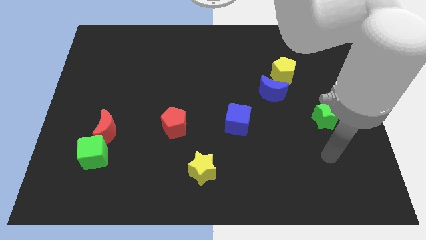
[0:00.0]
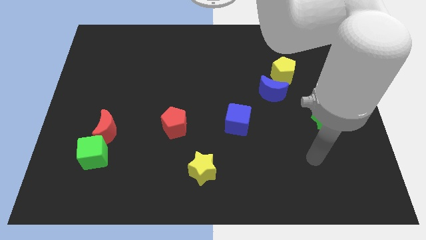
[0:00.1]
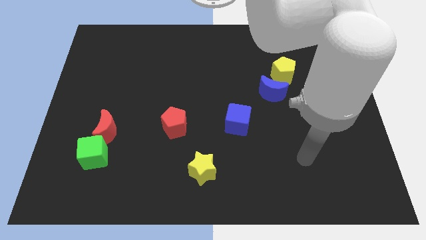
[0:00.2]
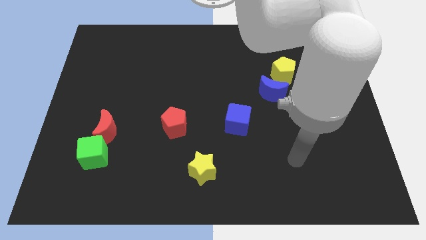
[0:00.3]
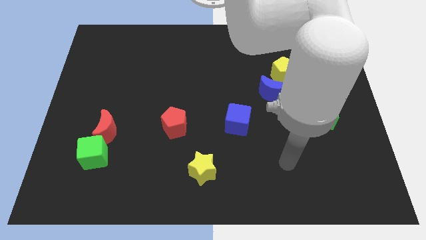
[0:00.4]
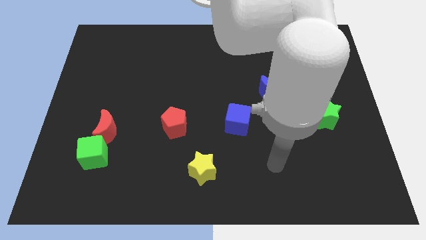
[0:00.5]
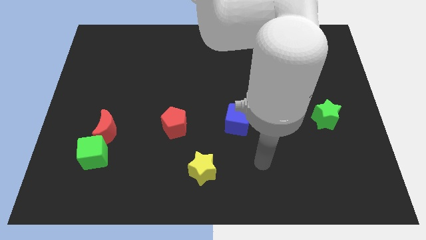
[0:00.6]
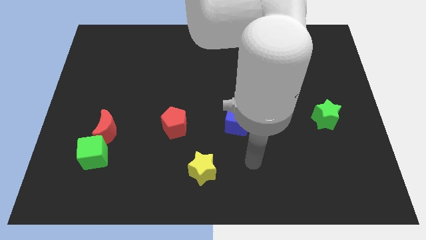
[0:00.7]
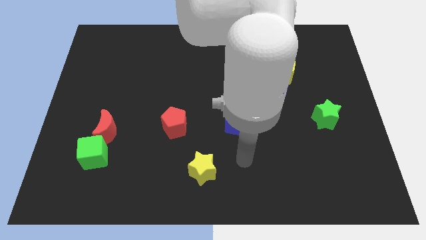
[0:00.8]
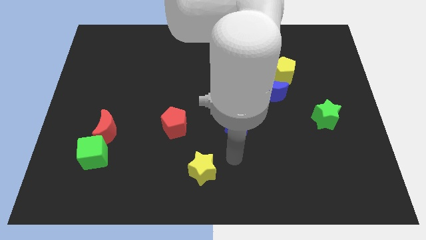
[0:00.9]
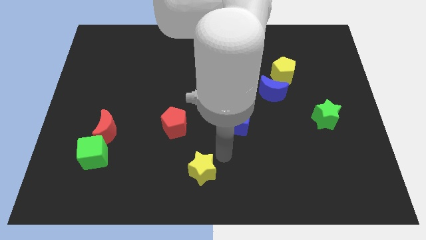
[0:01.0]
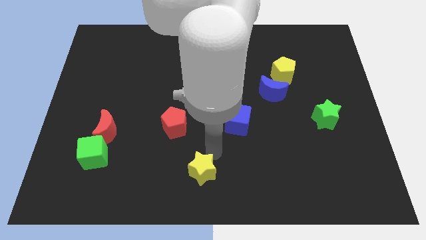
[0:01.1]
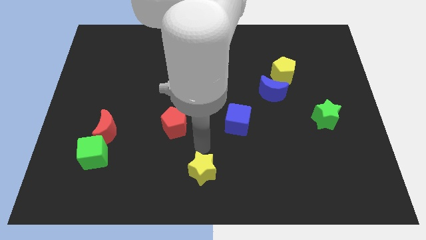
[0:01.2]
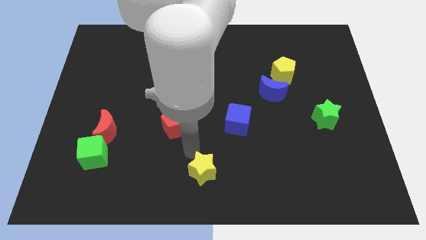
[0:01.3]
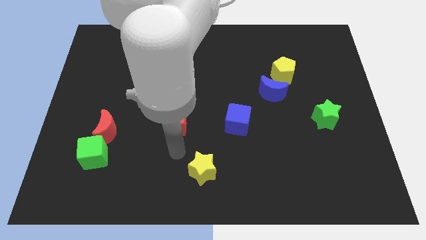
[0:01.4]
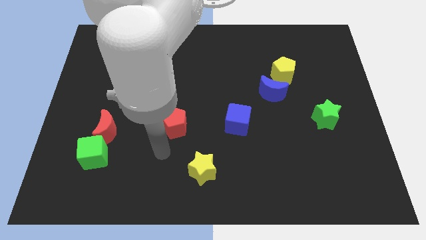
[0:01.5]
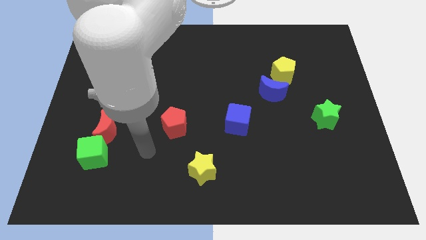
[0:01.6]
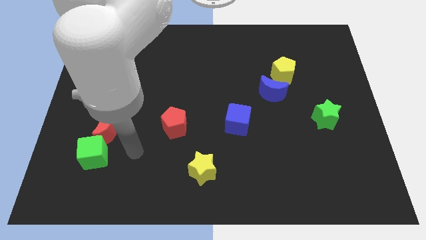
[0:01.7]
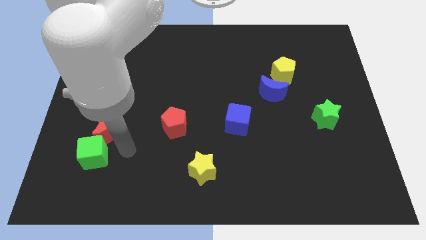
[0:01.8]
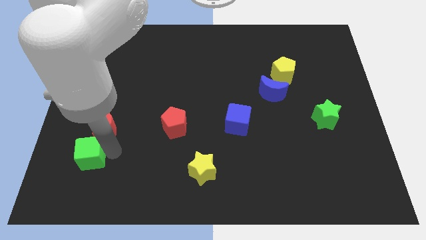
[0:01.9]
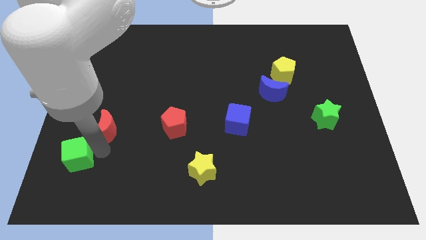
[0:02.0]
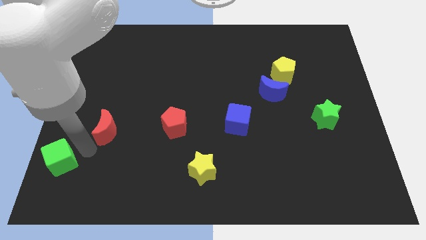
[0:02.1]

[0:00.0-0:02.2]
separate the red moon from the green cube

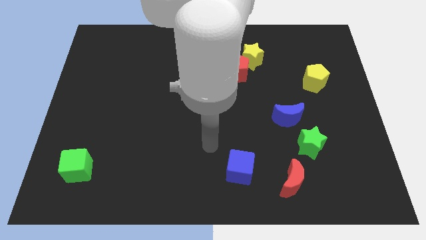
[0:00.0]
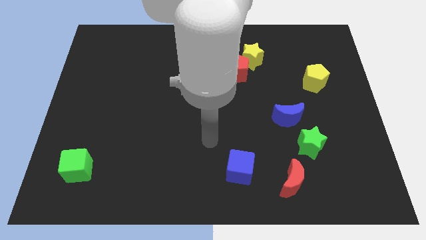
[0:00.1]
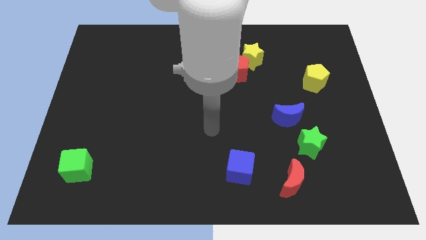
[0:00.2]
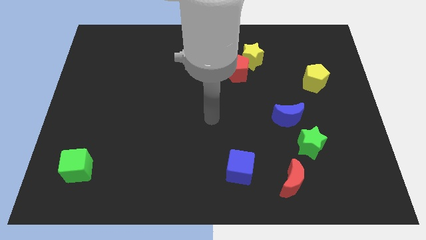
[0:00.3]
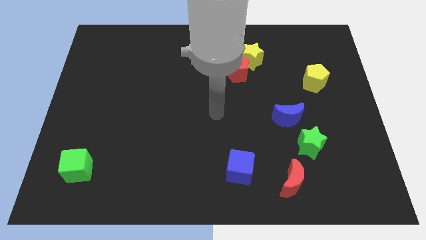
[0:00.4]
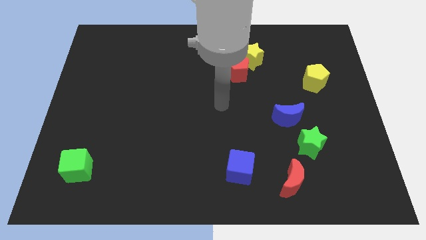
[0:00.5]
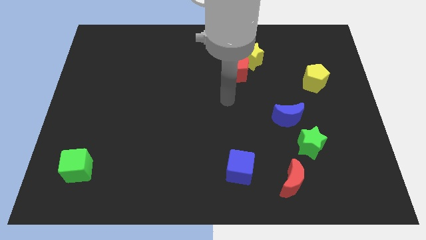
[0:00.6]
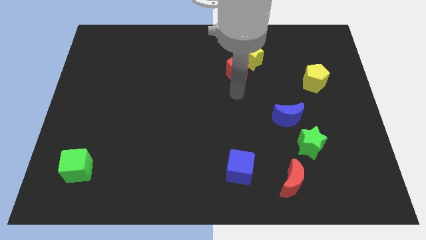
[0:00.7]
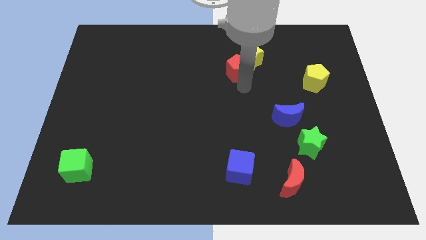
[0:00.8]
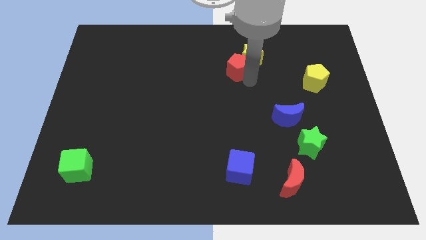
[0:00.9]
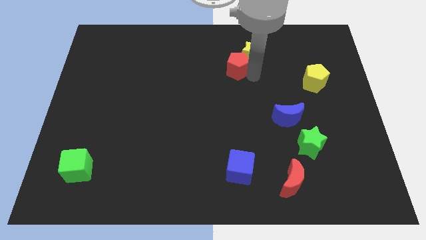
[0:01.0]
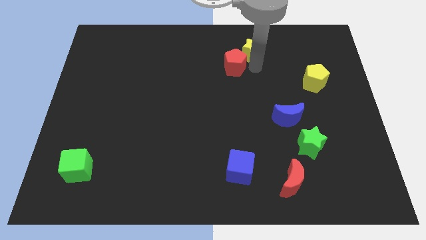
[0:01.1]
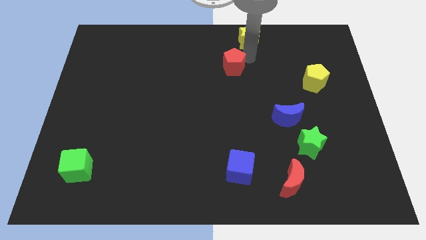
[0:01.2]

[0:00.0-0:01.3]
move the red pentagon away from the yellow star

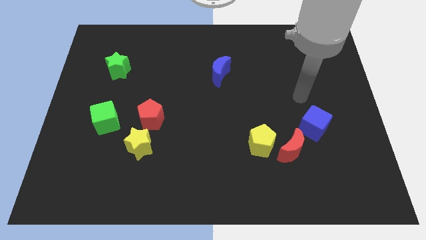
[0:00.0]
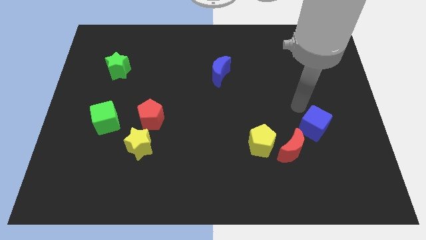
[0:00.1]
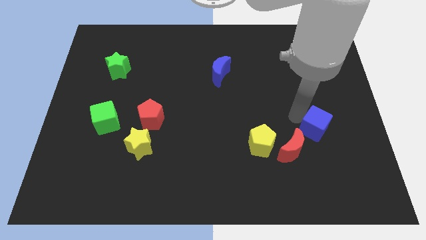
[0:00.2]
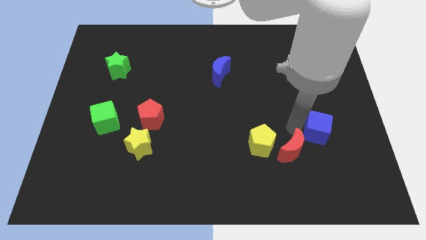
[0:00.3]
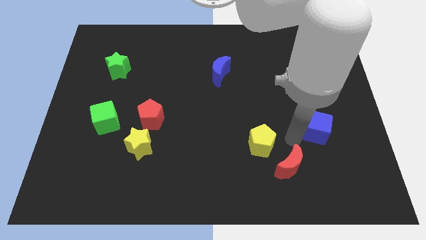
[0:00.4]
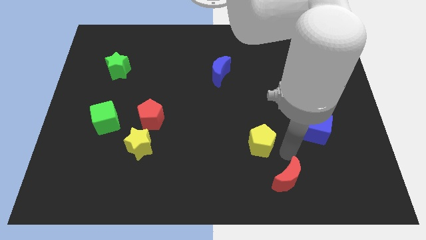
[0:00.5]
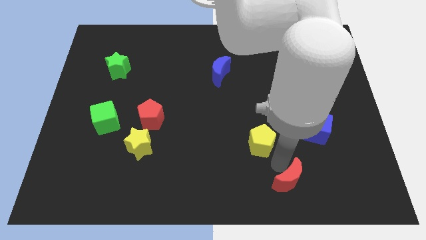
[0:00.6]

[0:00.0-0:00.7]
separate the yellow pentagon from the red moon

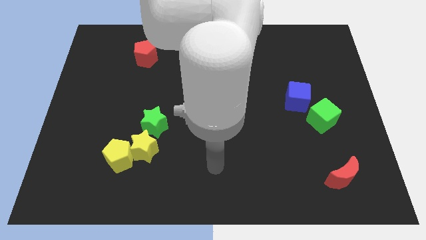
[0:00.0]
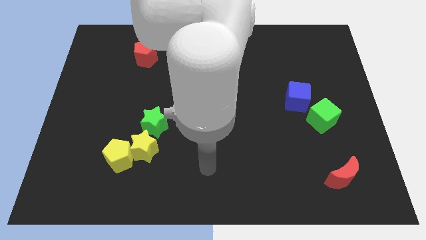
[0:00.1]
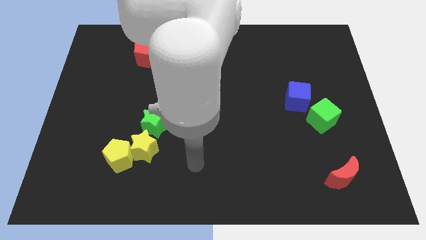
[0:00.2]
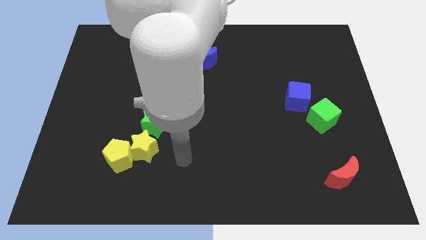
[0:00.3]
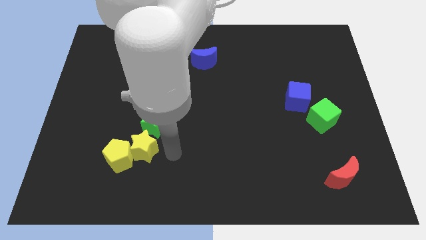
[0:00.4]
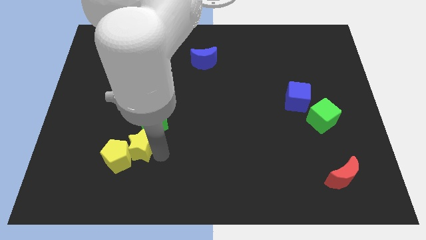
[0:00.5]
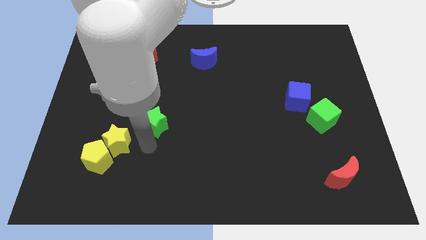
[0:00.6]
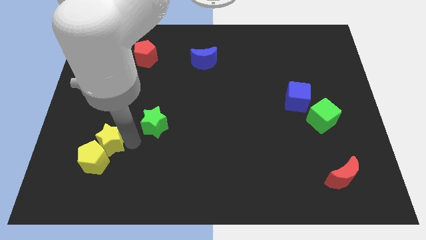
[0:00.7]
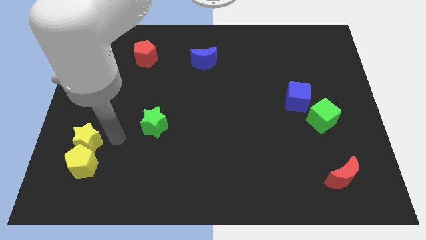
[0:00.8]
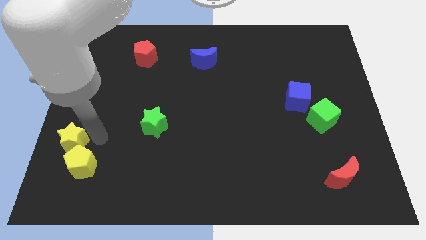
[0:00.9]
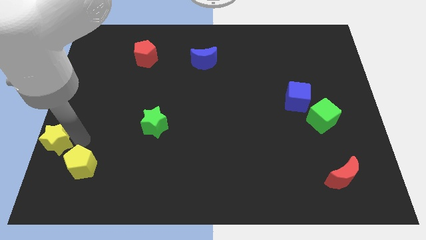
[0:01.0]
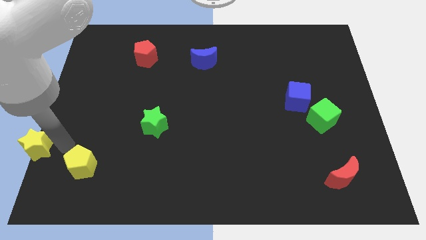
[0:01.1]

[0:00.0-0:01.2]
separate the yellow pentagon from the yellow star

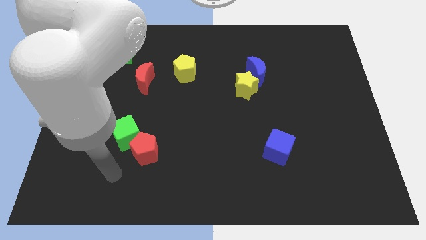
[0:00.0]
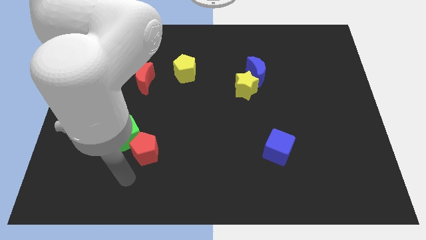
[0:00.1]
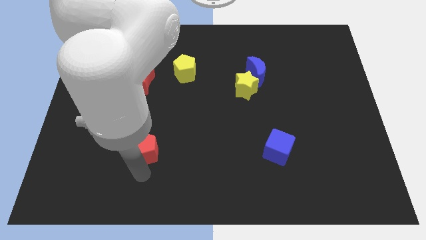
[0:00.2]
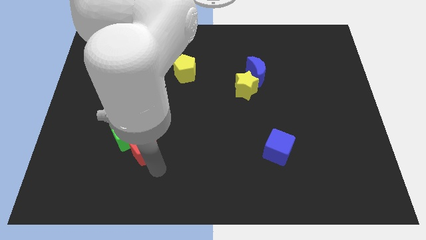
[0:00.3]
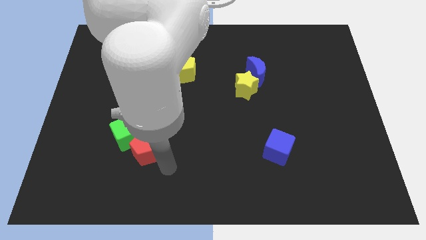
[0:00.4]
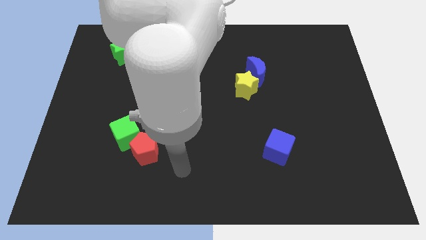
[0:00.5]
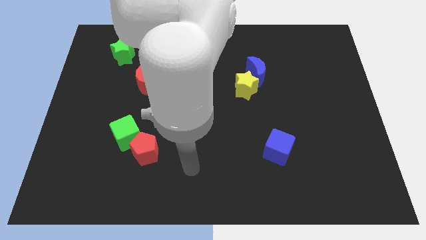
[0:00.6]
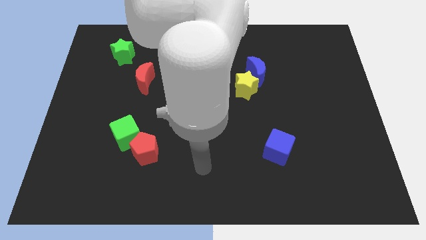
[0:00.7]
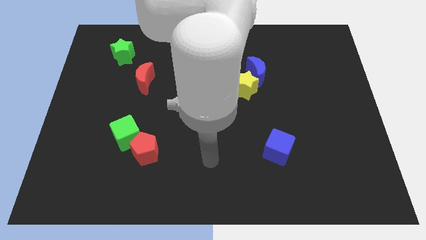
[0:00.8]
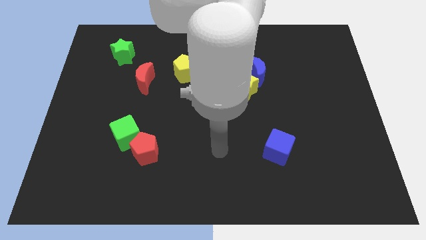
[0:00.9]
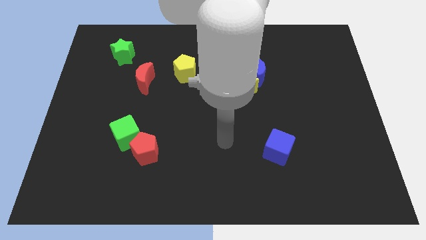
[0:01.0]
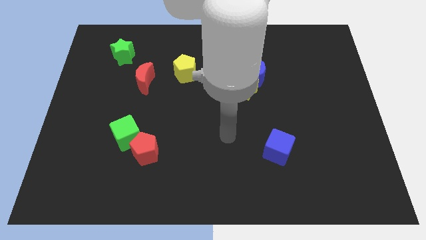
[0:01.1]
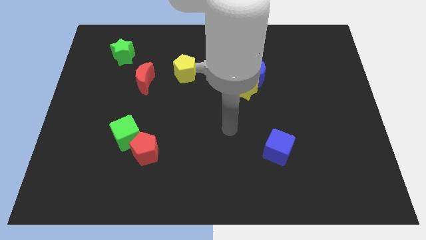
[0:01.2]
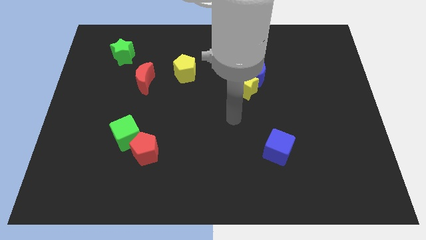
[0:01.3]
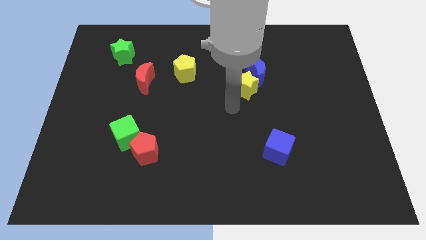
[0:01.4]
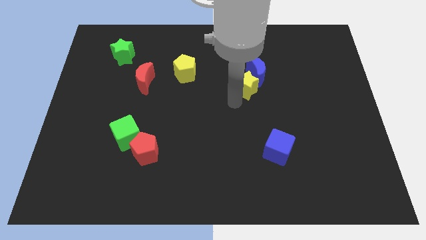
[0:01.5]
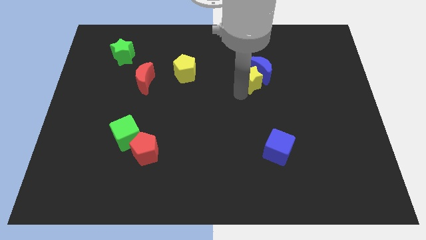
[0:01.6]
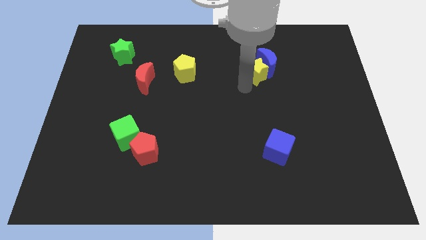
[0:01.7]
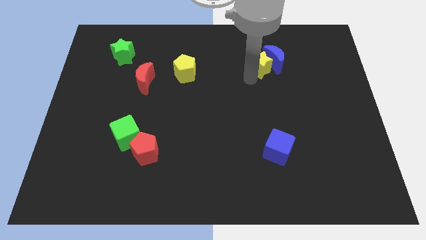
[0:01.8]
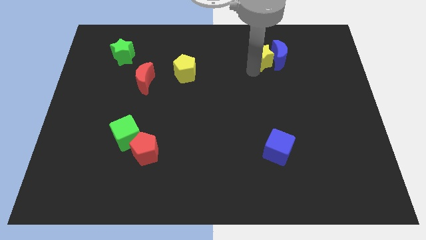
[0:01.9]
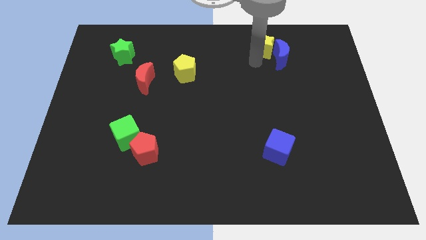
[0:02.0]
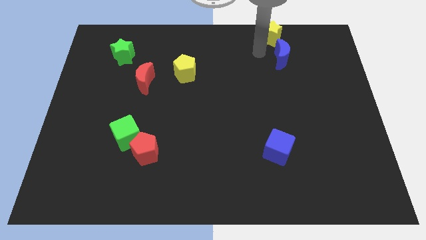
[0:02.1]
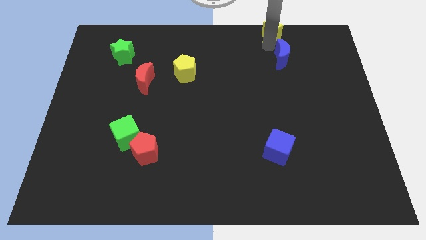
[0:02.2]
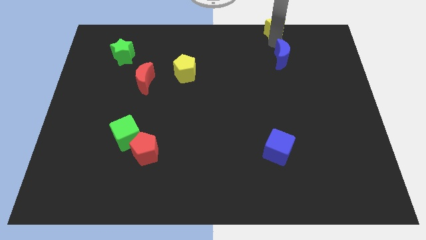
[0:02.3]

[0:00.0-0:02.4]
separate the blue moon from the yellow star

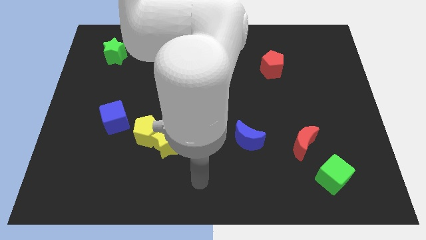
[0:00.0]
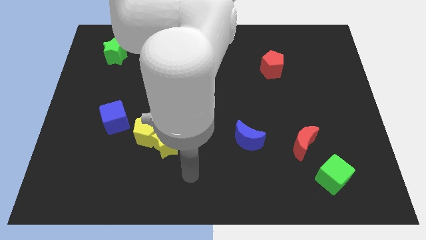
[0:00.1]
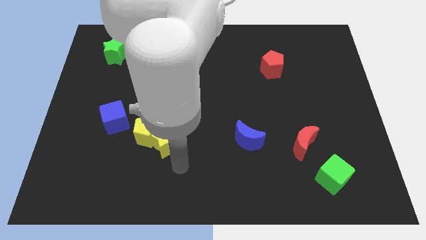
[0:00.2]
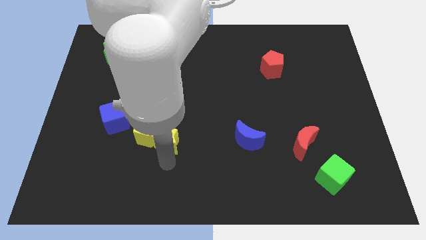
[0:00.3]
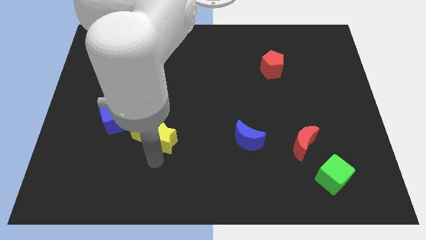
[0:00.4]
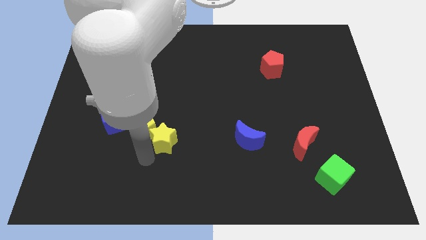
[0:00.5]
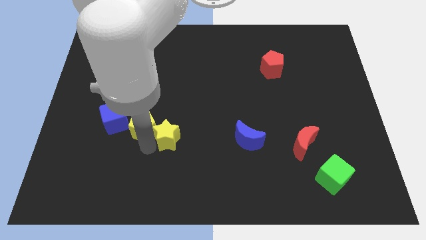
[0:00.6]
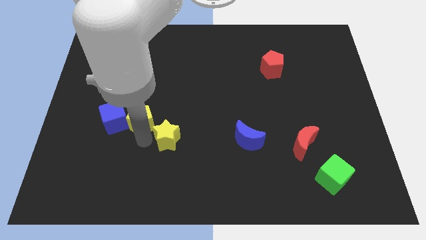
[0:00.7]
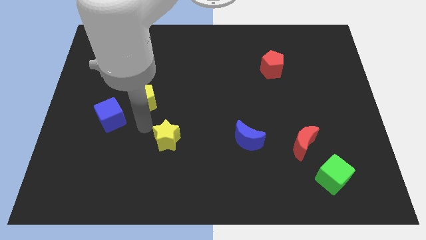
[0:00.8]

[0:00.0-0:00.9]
separate the yellow star from the yellow pentagon

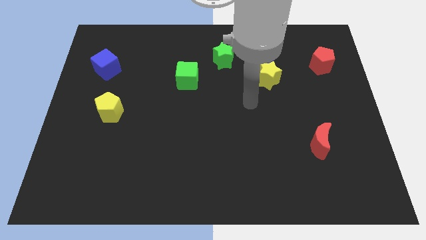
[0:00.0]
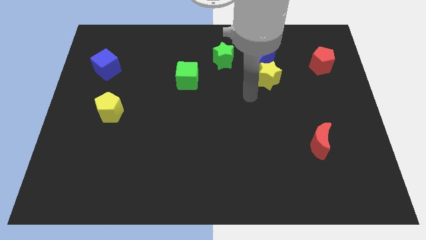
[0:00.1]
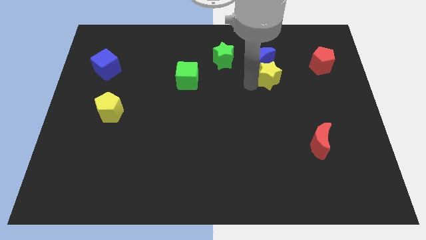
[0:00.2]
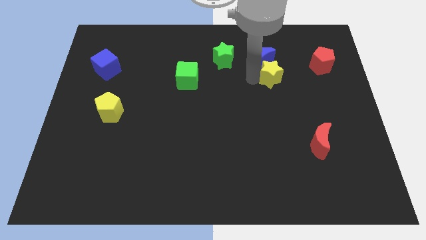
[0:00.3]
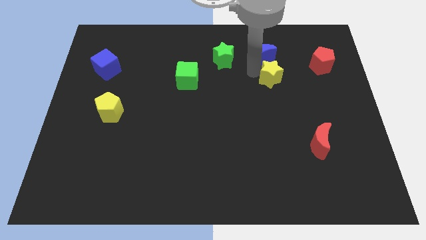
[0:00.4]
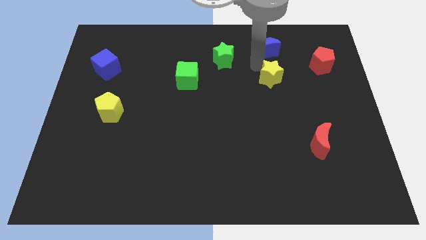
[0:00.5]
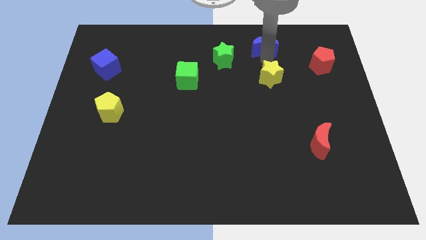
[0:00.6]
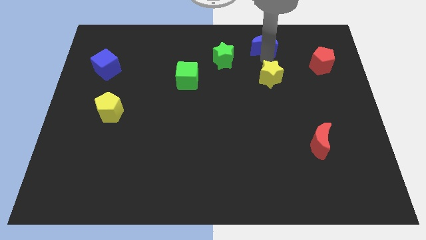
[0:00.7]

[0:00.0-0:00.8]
separate the yellow star from the blue moon
